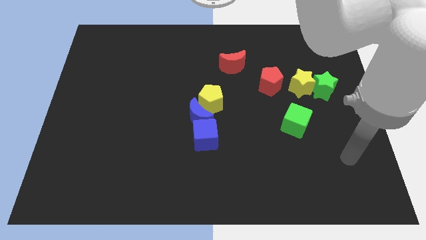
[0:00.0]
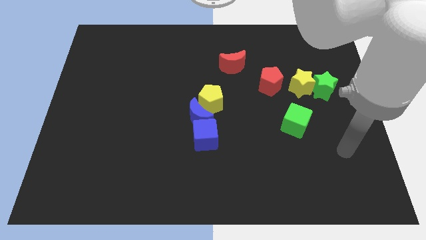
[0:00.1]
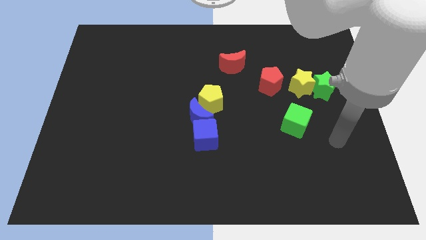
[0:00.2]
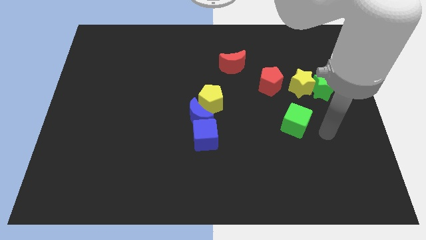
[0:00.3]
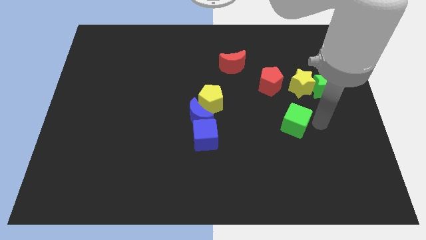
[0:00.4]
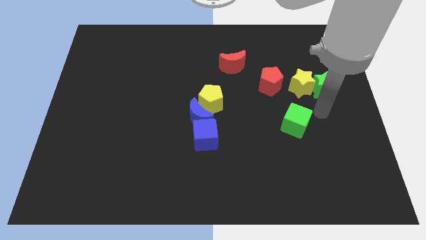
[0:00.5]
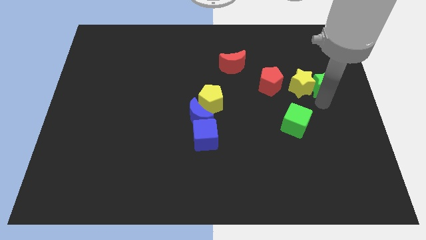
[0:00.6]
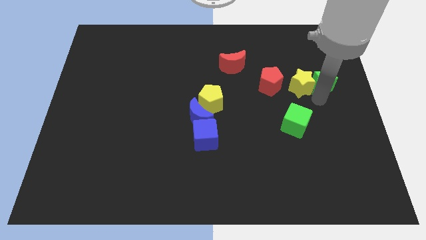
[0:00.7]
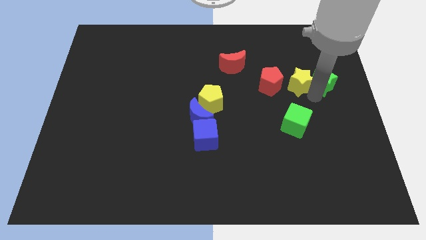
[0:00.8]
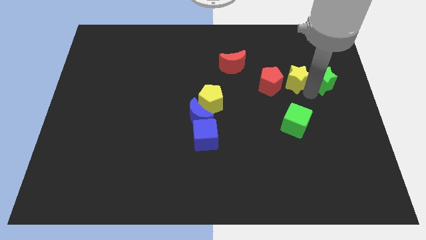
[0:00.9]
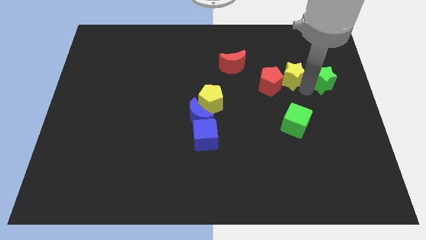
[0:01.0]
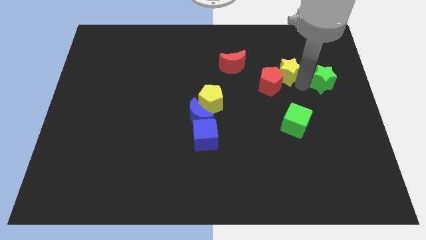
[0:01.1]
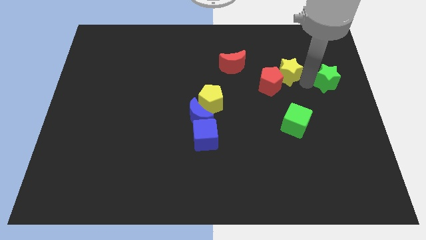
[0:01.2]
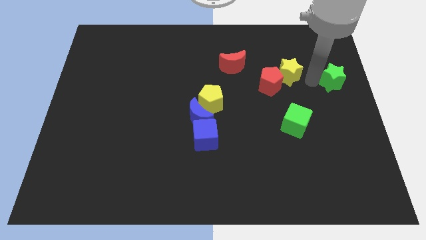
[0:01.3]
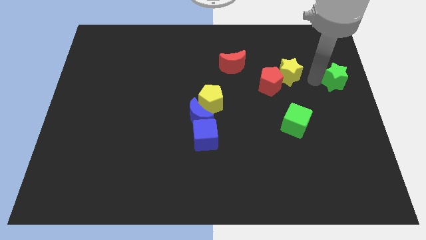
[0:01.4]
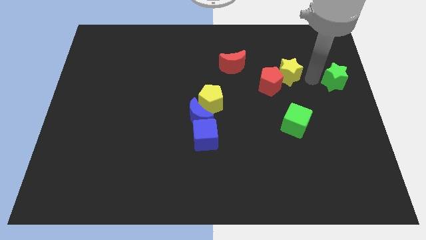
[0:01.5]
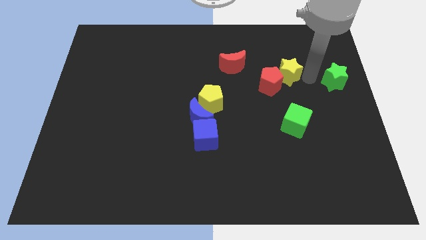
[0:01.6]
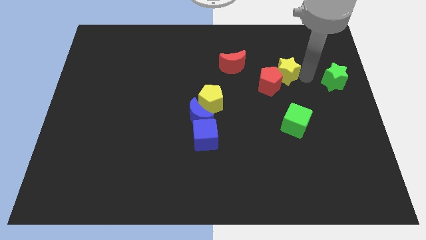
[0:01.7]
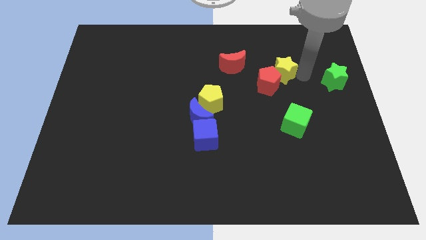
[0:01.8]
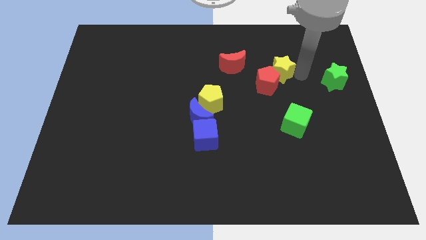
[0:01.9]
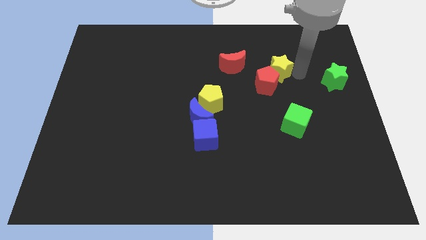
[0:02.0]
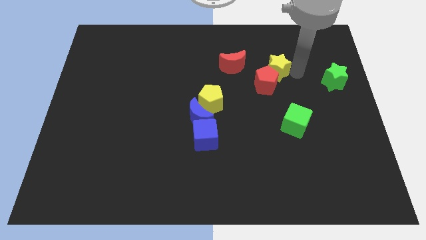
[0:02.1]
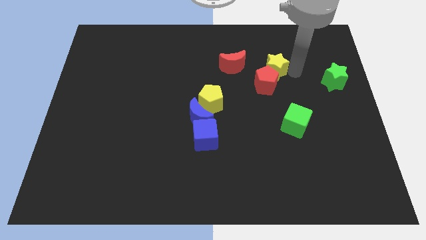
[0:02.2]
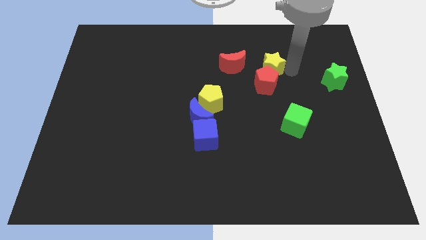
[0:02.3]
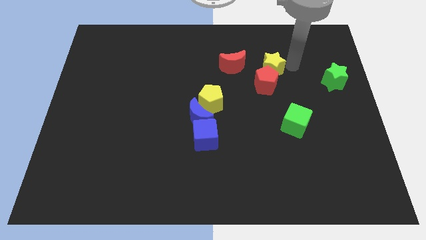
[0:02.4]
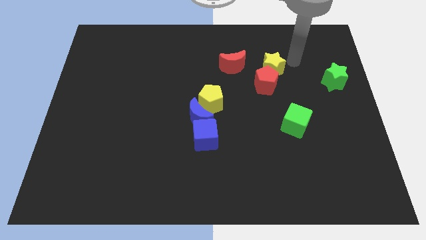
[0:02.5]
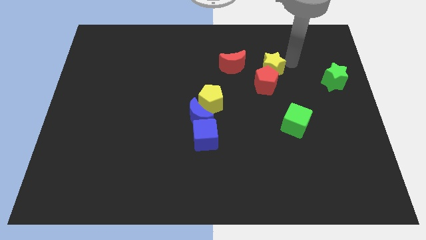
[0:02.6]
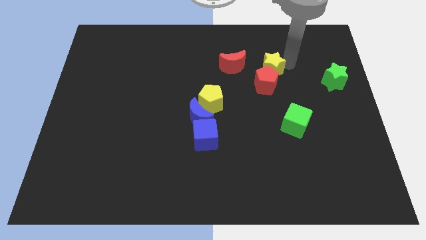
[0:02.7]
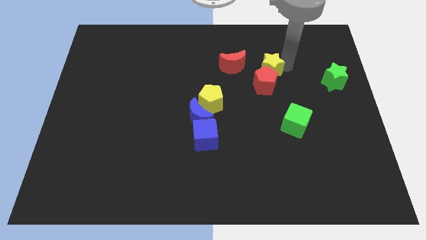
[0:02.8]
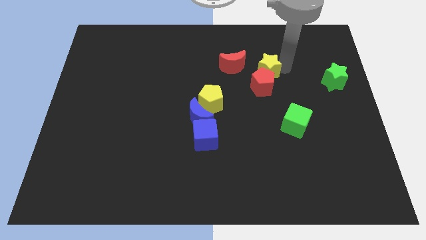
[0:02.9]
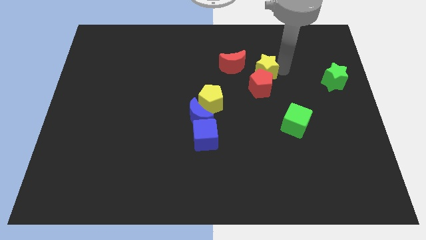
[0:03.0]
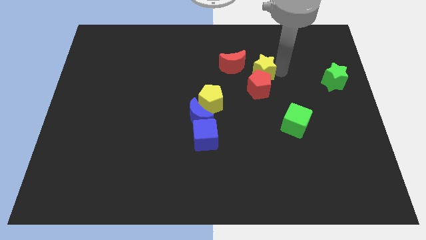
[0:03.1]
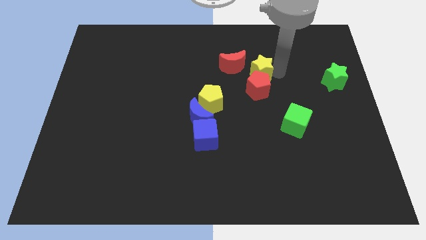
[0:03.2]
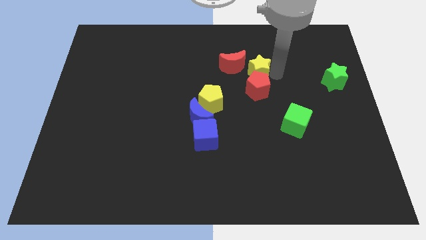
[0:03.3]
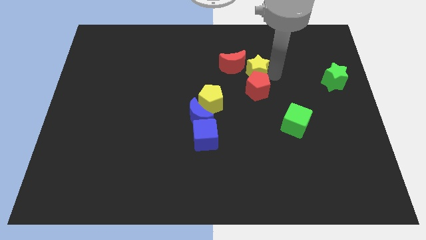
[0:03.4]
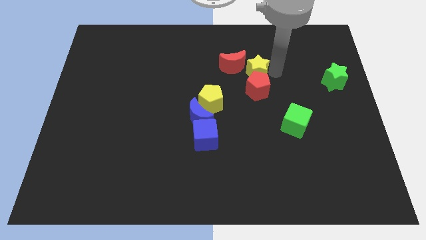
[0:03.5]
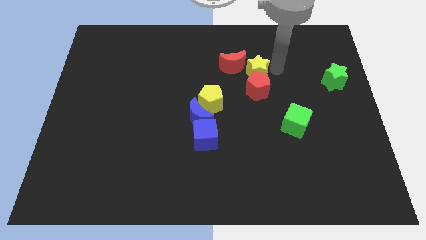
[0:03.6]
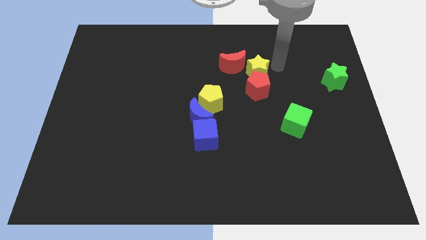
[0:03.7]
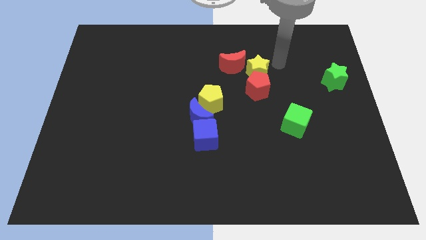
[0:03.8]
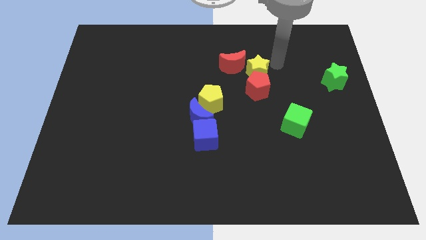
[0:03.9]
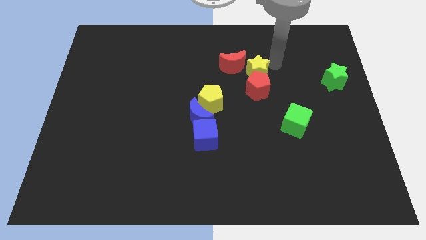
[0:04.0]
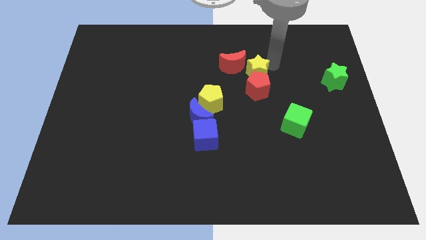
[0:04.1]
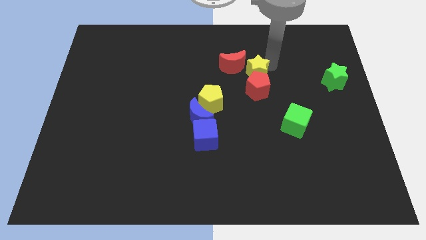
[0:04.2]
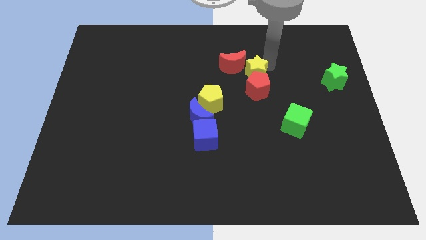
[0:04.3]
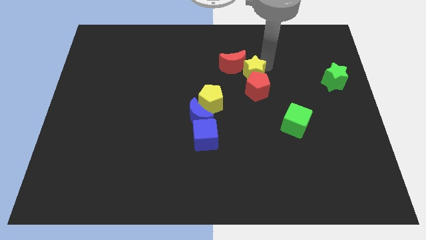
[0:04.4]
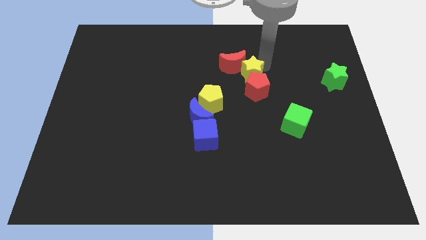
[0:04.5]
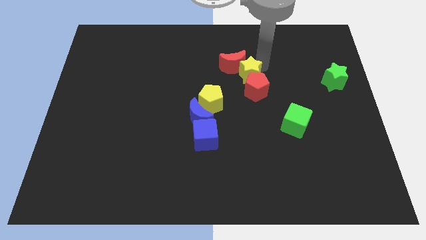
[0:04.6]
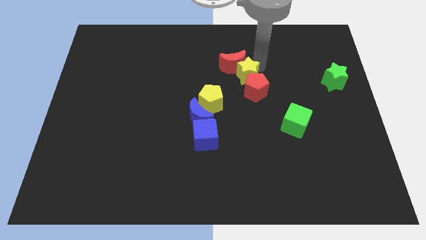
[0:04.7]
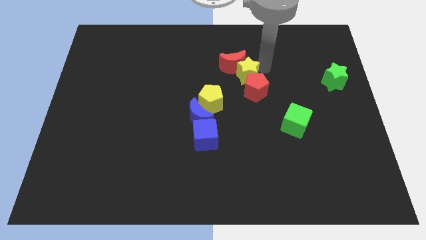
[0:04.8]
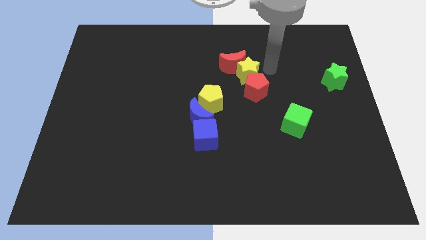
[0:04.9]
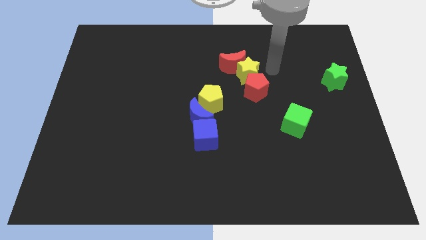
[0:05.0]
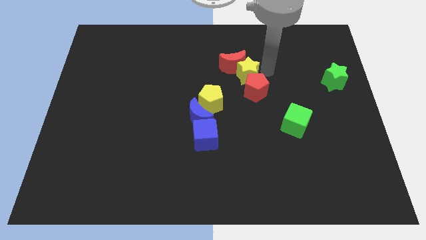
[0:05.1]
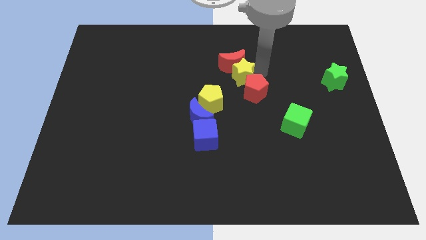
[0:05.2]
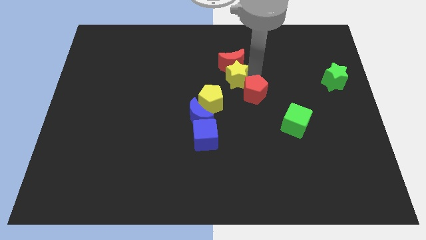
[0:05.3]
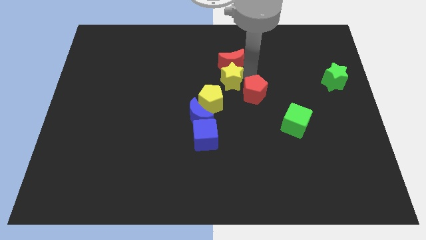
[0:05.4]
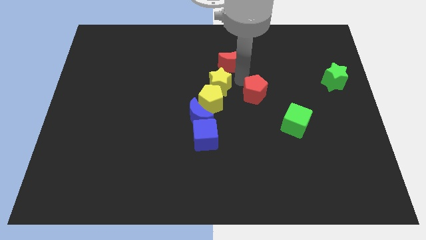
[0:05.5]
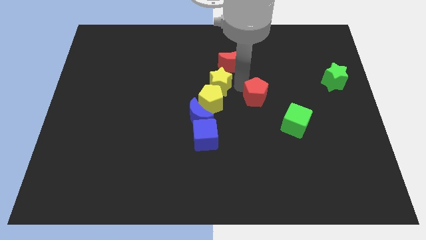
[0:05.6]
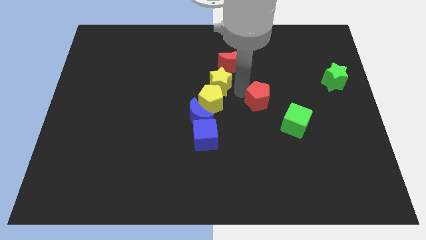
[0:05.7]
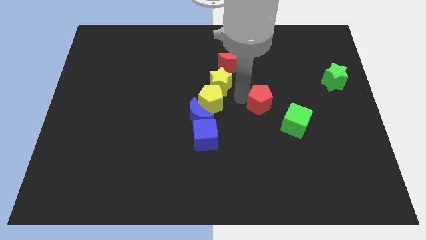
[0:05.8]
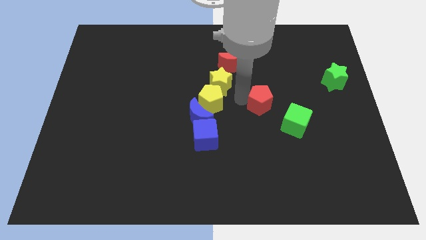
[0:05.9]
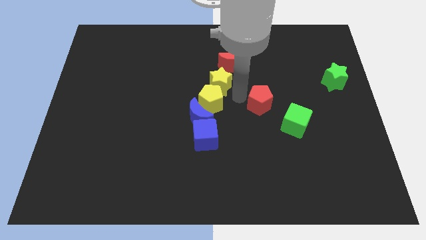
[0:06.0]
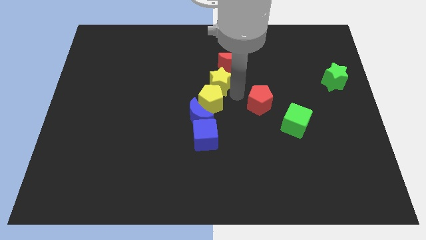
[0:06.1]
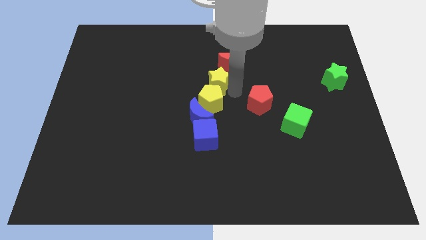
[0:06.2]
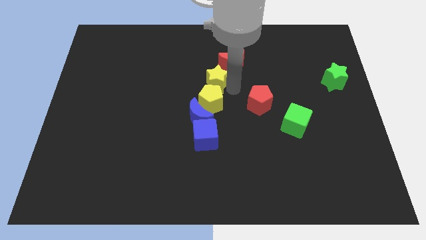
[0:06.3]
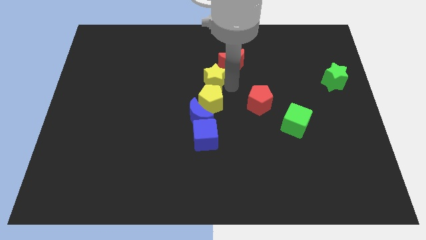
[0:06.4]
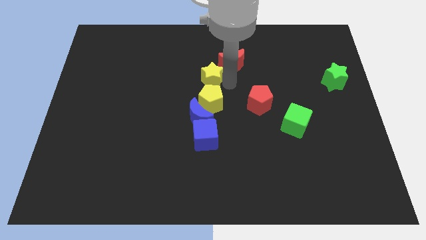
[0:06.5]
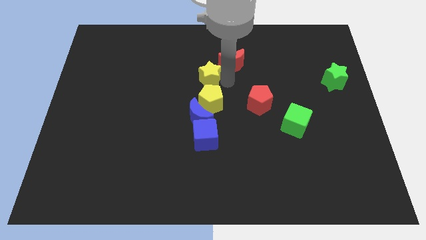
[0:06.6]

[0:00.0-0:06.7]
push the yellow star to the left of the red moon

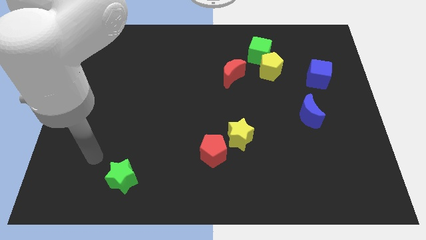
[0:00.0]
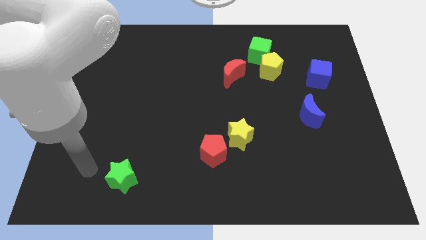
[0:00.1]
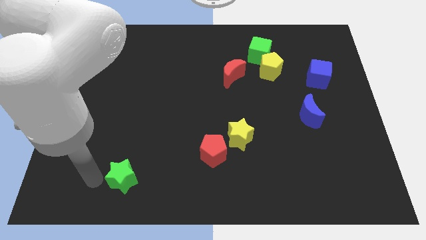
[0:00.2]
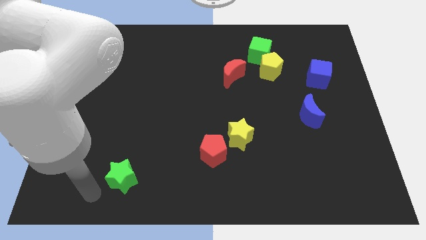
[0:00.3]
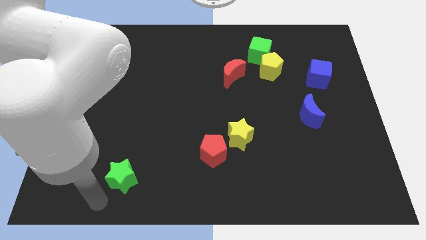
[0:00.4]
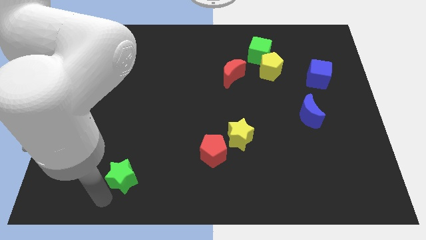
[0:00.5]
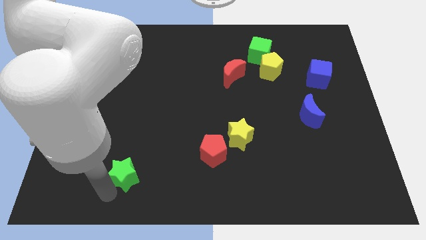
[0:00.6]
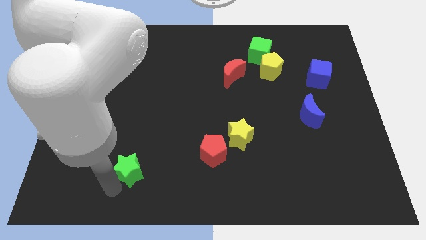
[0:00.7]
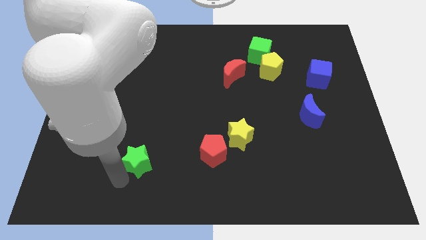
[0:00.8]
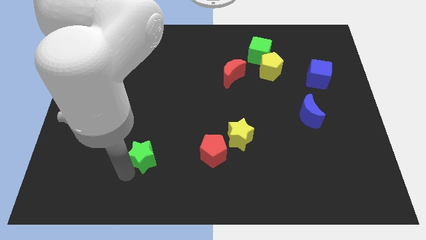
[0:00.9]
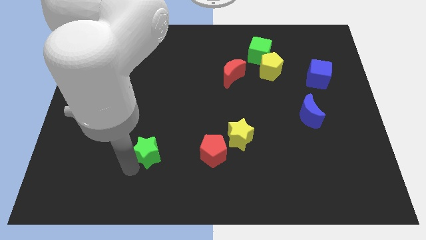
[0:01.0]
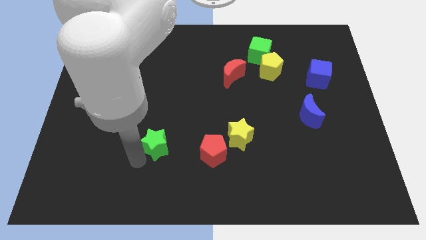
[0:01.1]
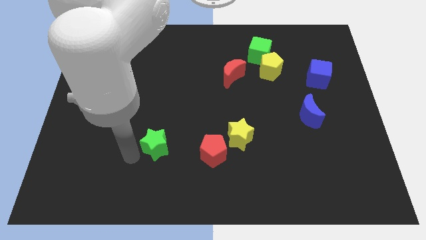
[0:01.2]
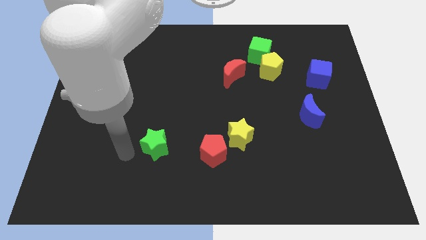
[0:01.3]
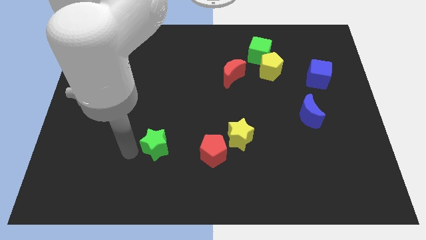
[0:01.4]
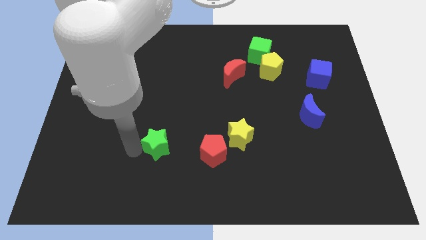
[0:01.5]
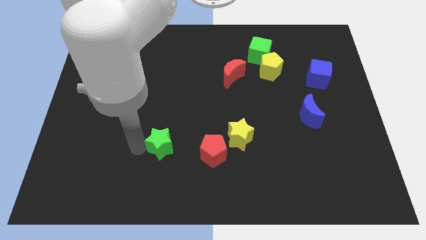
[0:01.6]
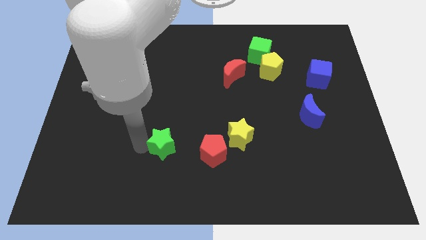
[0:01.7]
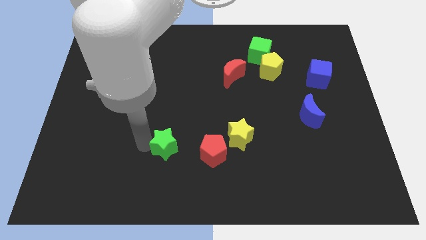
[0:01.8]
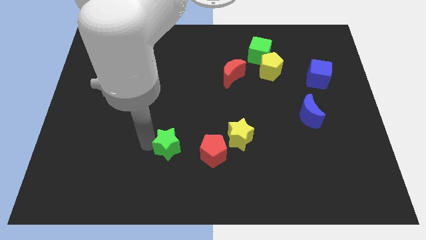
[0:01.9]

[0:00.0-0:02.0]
move the green star just left of the yellow star
